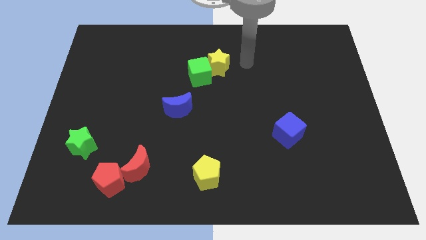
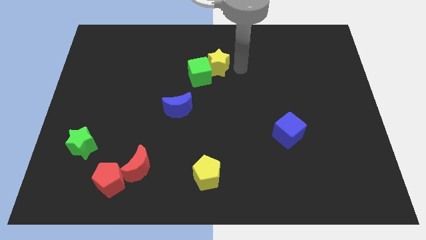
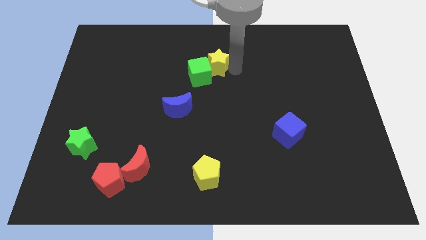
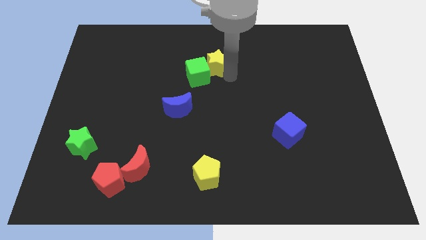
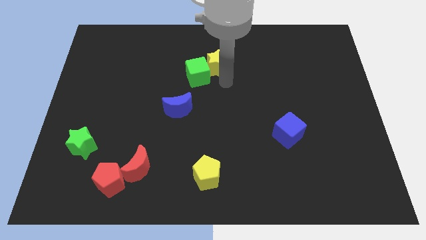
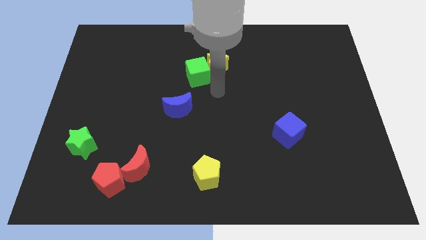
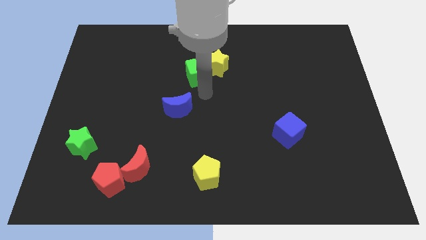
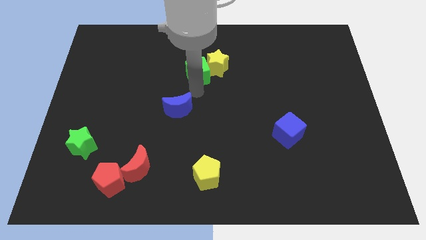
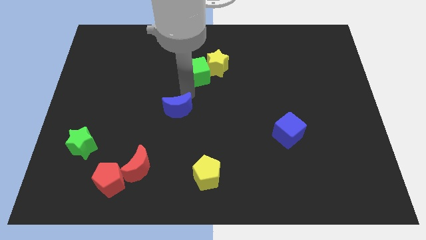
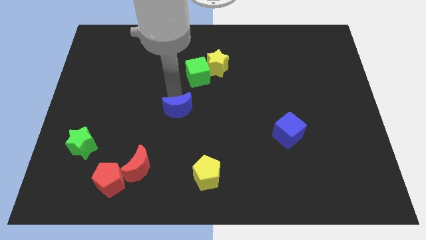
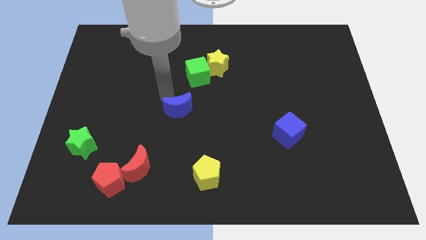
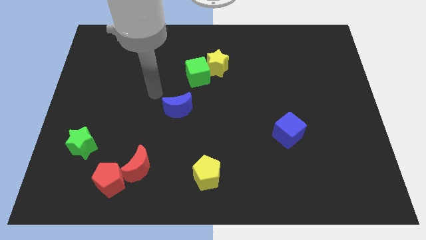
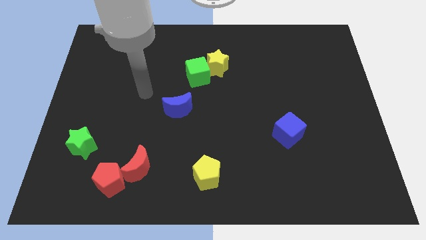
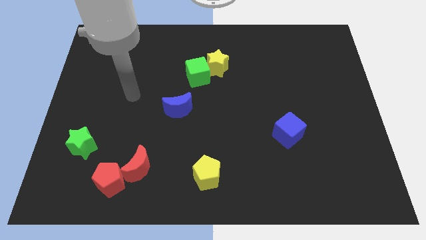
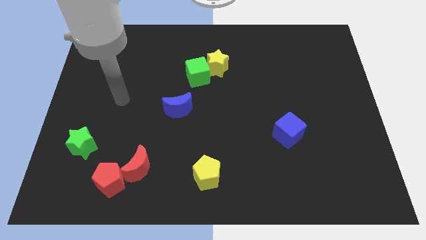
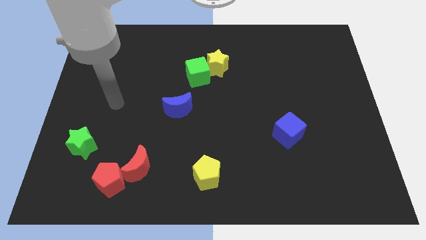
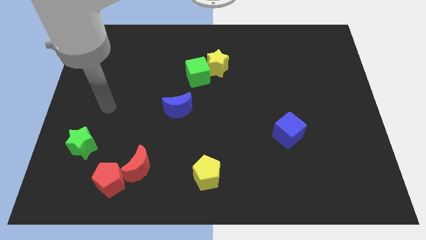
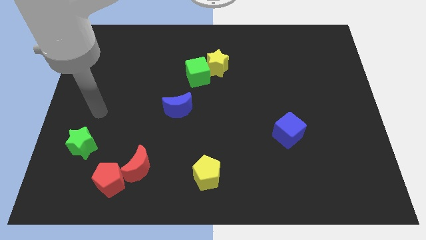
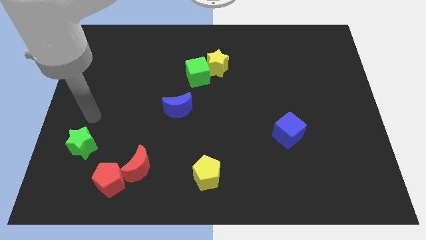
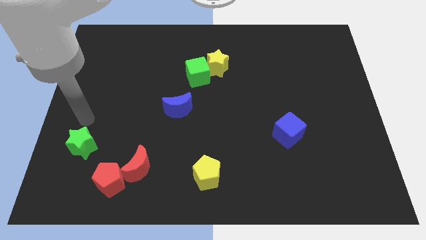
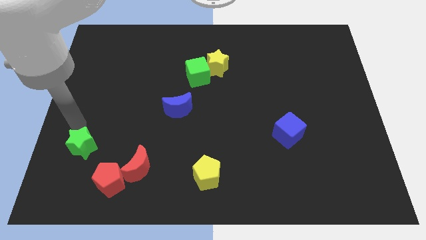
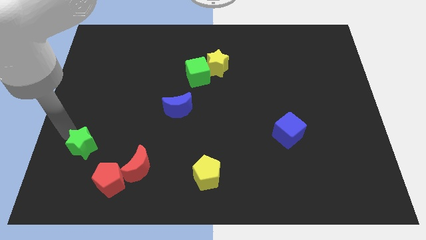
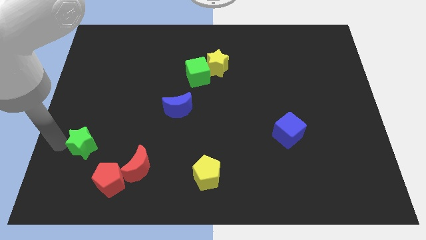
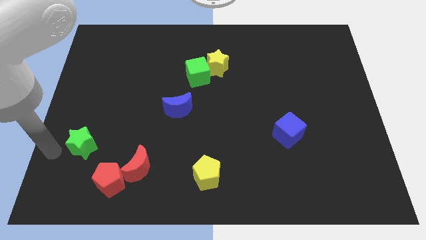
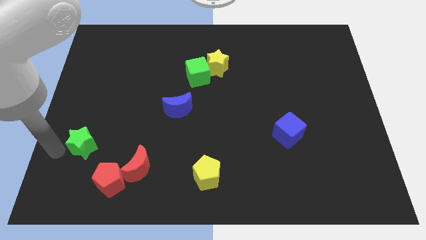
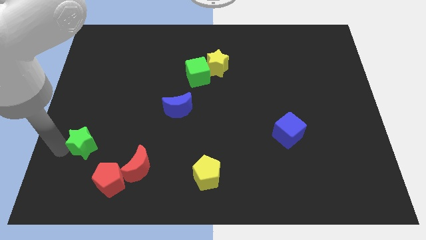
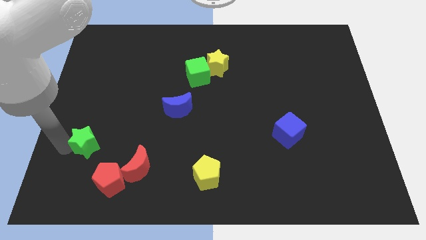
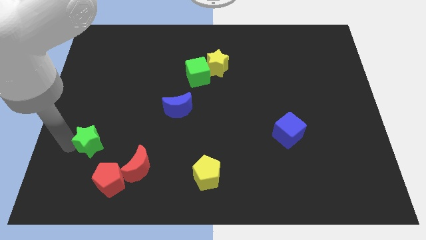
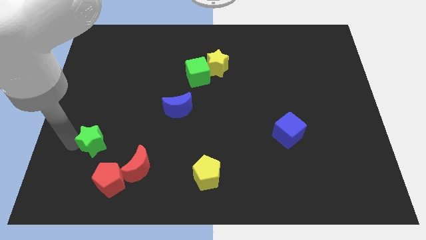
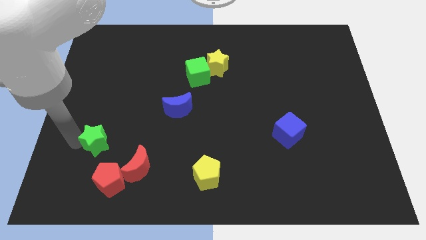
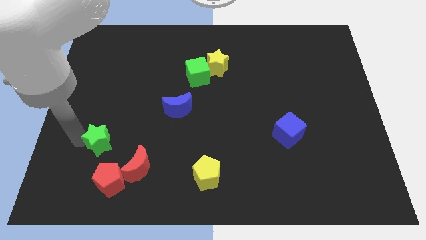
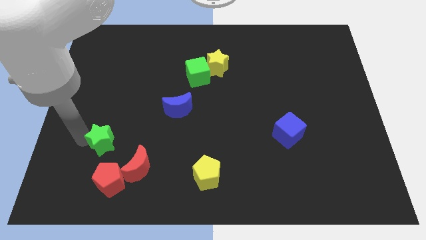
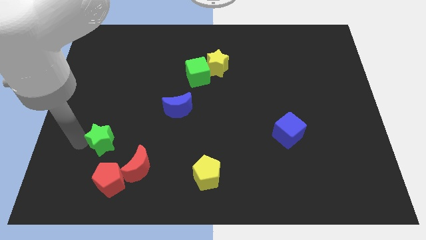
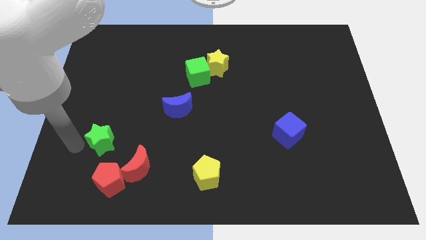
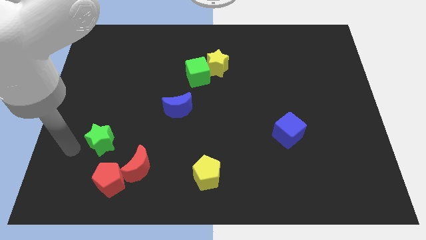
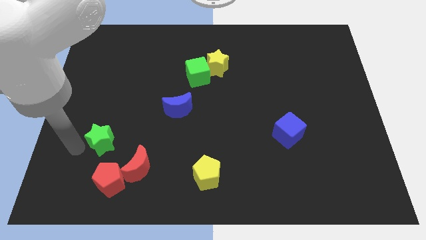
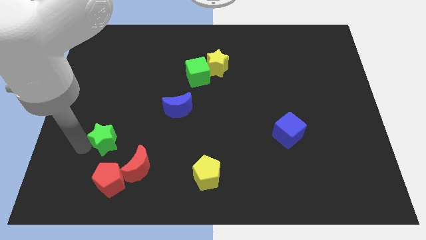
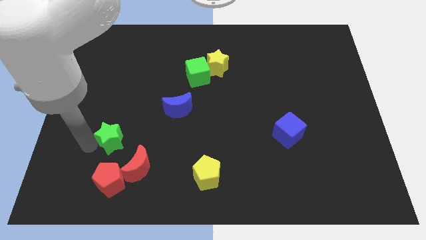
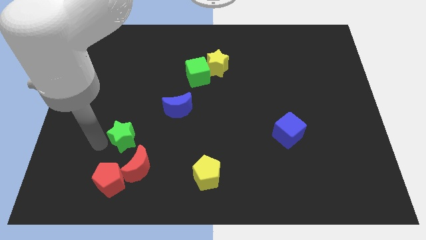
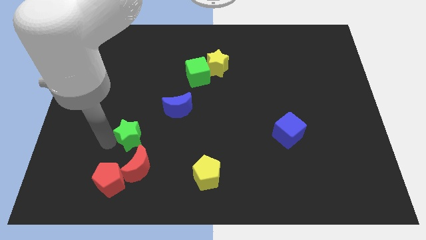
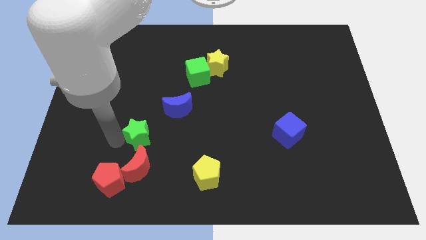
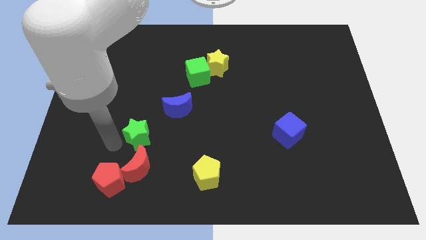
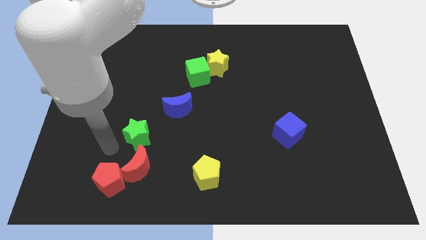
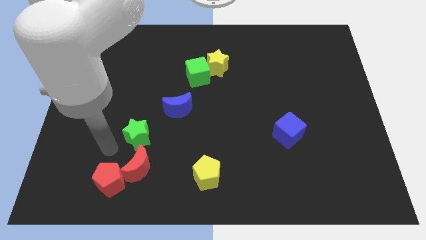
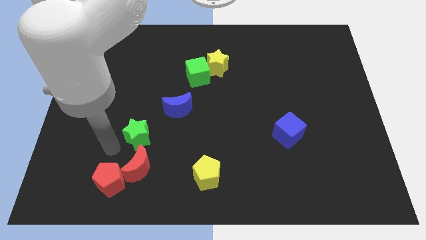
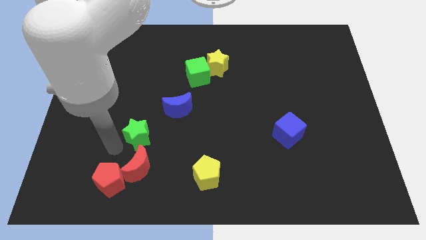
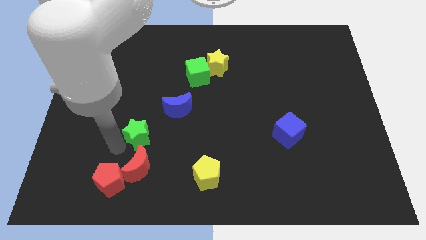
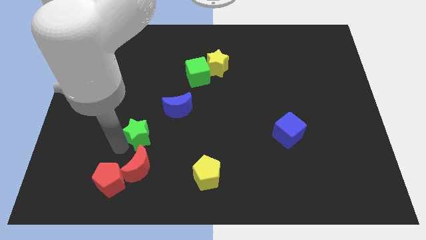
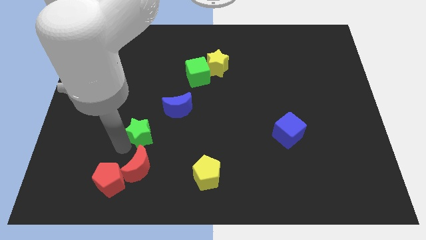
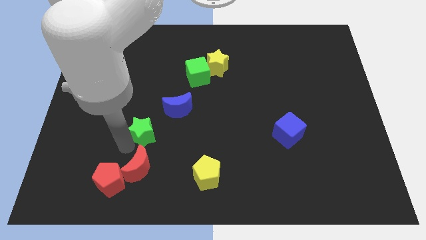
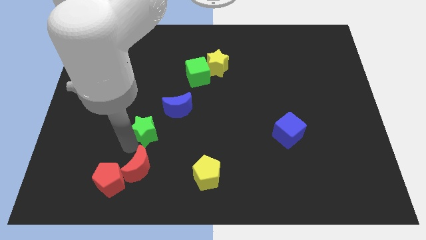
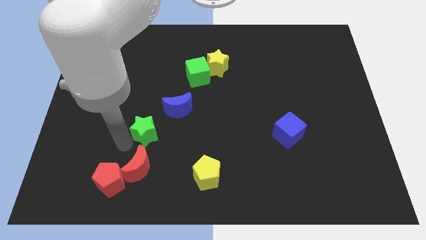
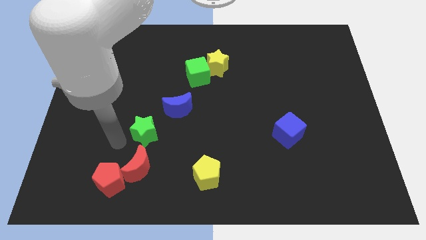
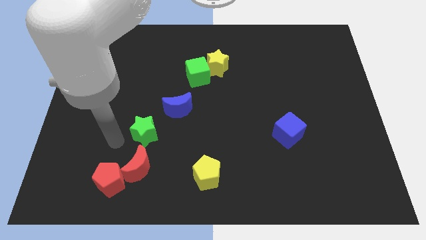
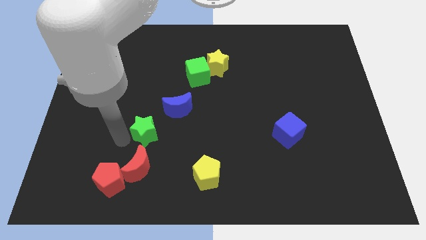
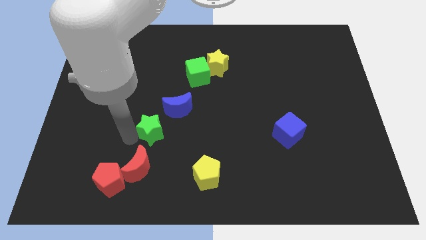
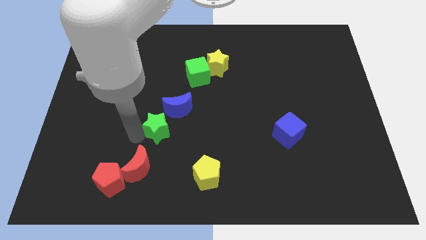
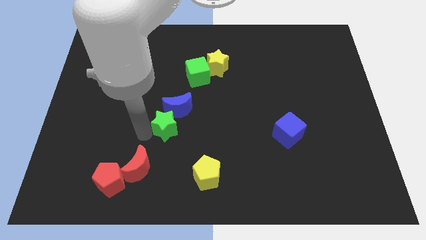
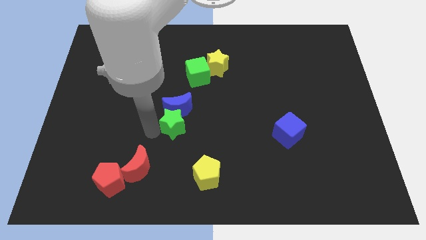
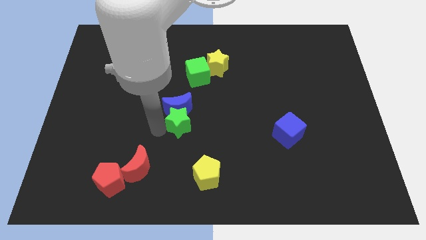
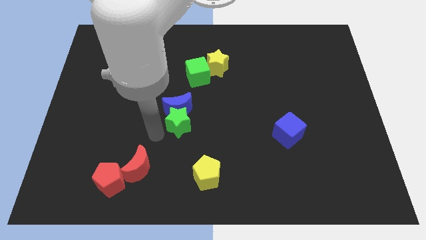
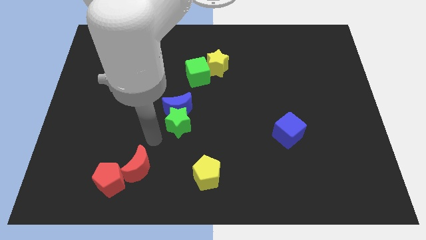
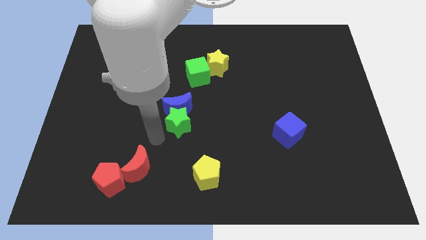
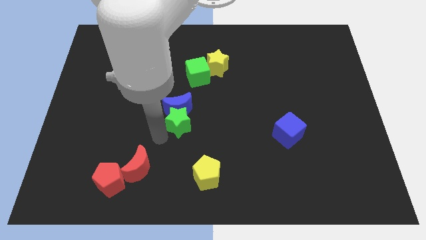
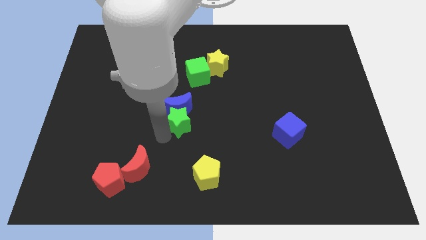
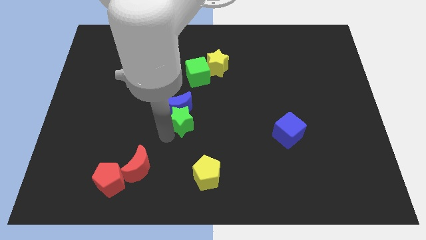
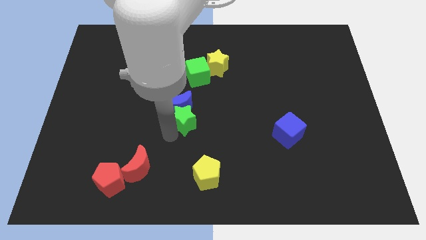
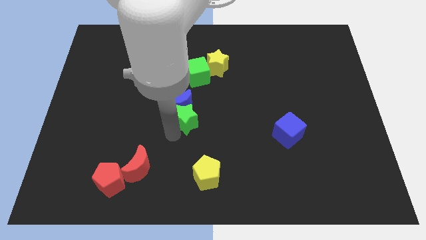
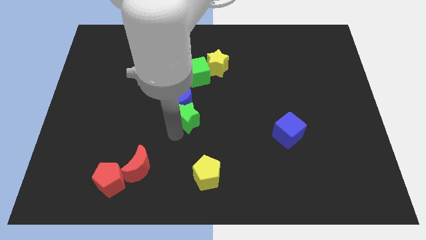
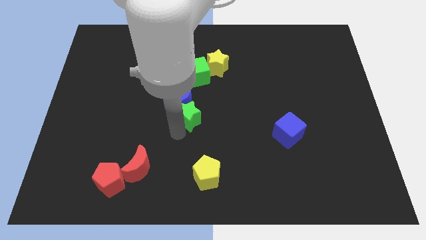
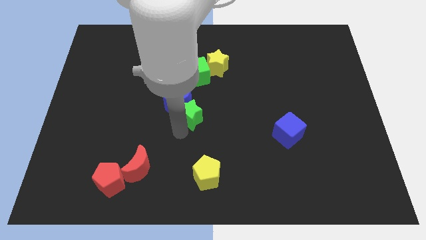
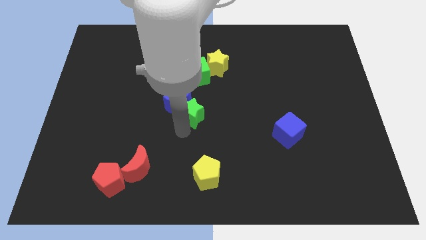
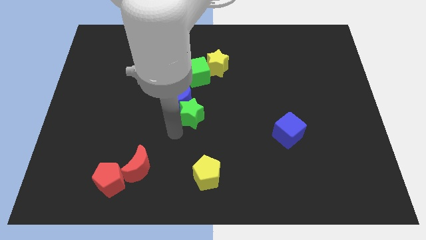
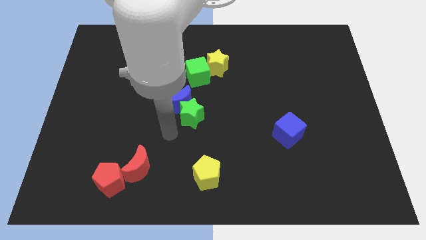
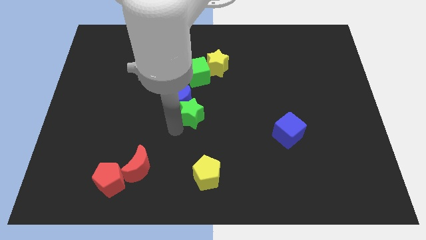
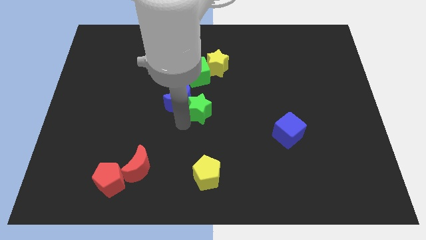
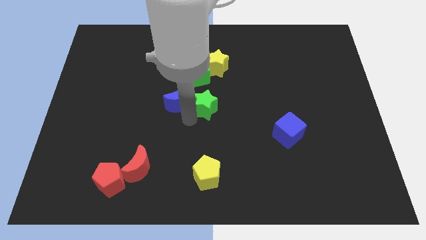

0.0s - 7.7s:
slide the green star to the bottom side of the yellow star
